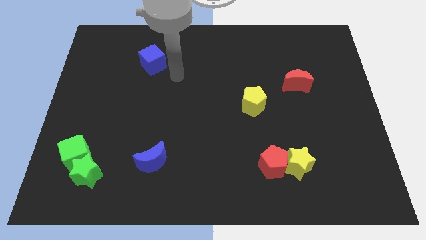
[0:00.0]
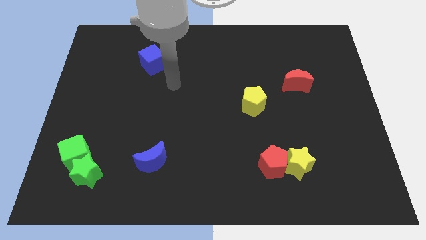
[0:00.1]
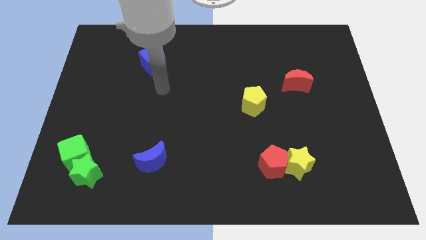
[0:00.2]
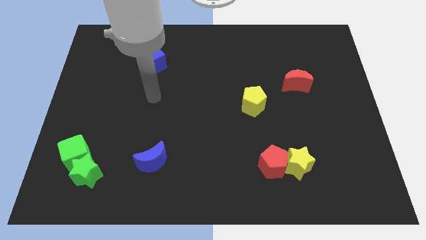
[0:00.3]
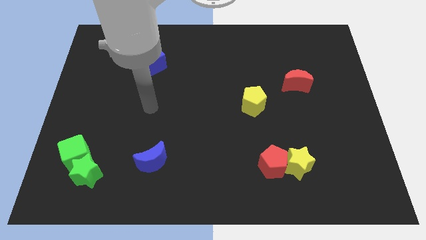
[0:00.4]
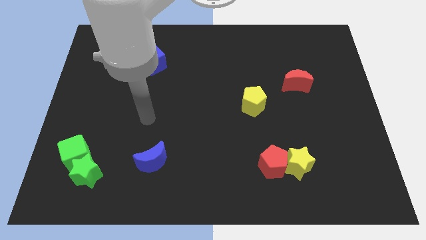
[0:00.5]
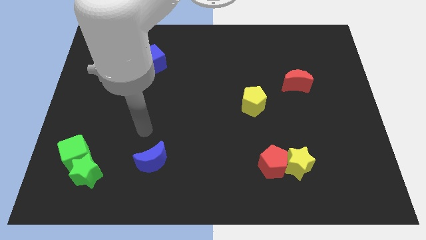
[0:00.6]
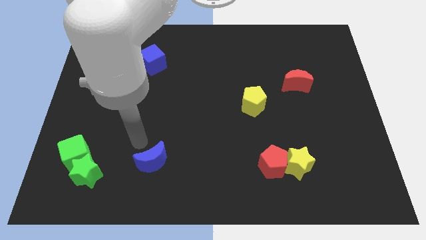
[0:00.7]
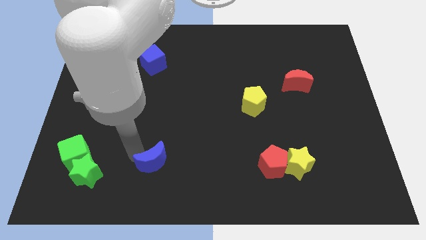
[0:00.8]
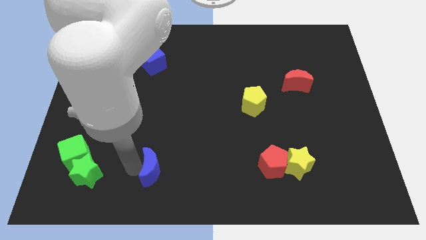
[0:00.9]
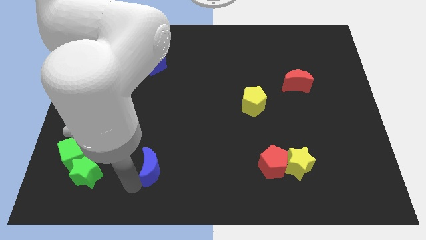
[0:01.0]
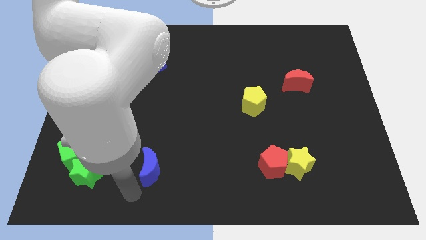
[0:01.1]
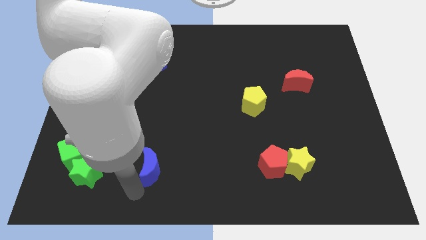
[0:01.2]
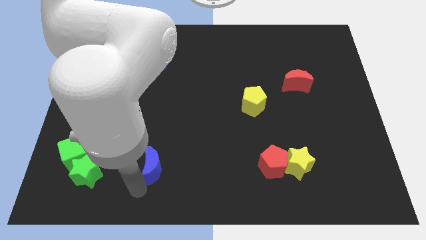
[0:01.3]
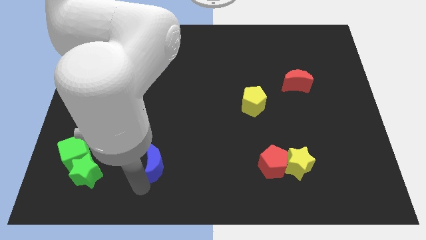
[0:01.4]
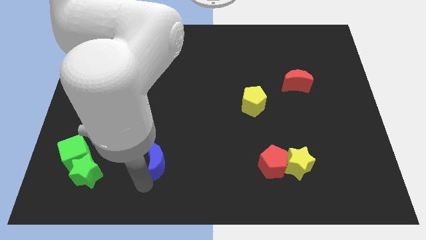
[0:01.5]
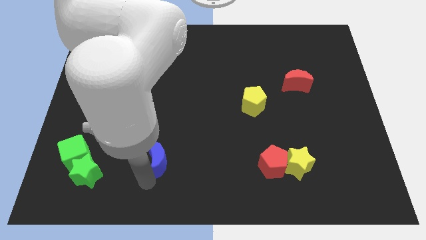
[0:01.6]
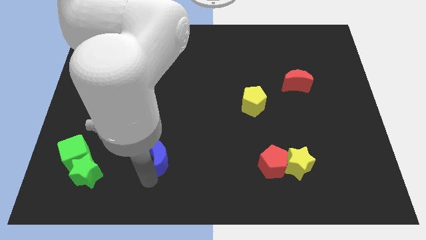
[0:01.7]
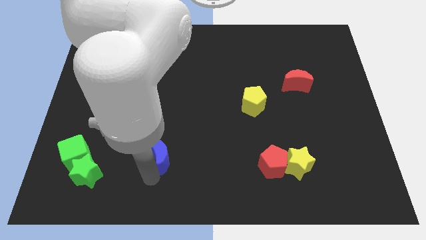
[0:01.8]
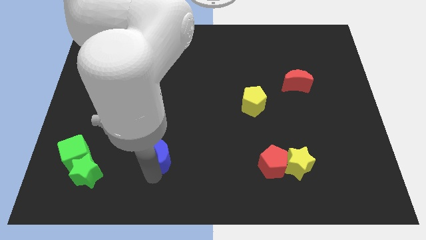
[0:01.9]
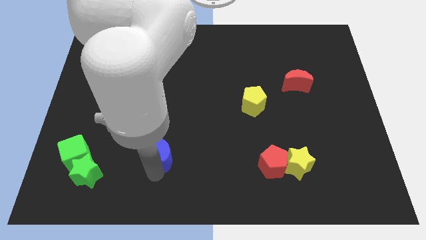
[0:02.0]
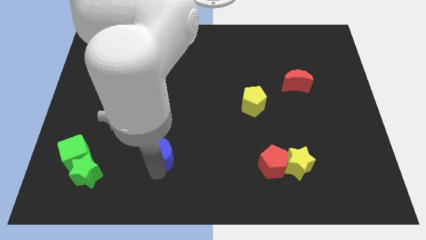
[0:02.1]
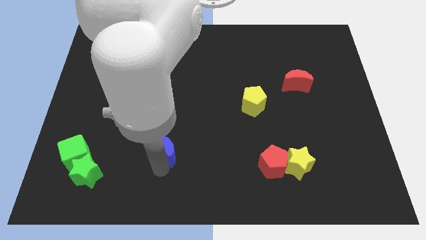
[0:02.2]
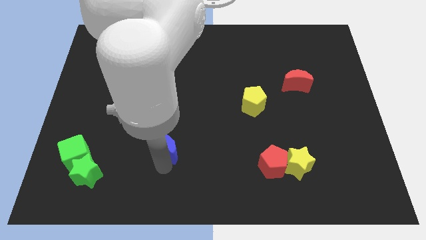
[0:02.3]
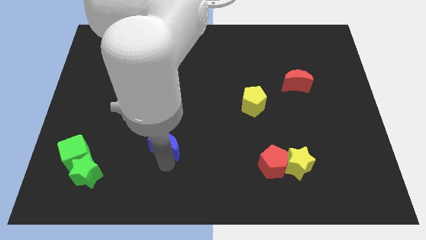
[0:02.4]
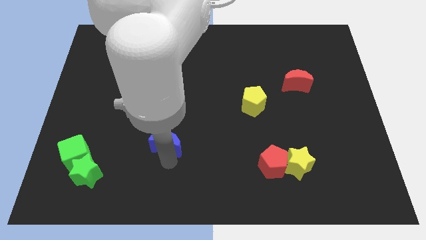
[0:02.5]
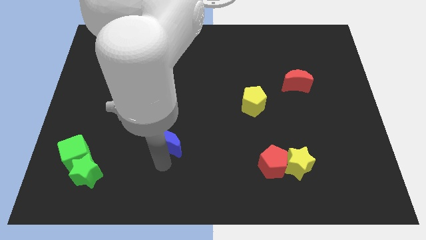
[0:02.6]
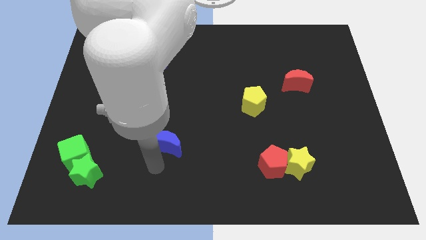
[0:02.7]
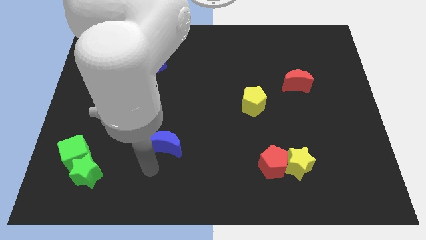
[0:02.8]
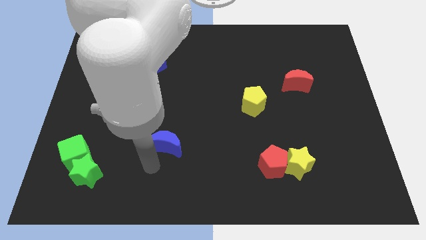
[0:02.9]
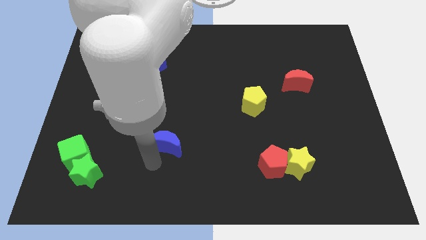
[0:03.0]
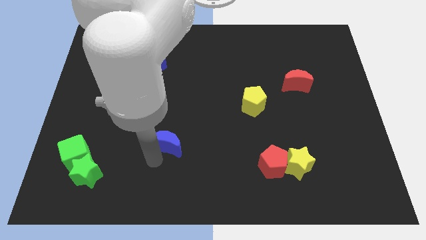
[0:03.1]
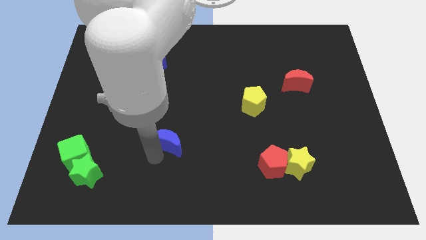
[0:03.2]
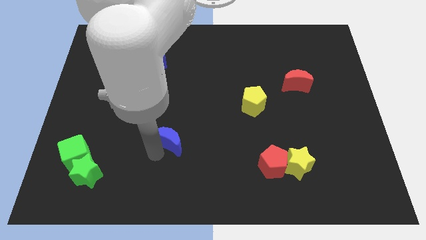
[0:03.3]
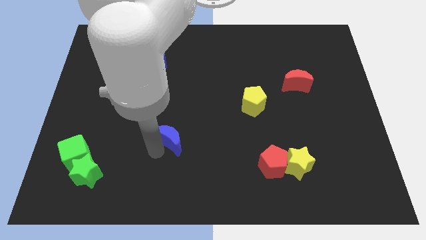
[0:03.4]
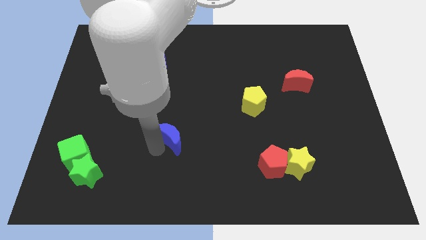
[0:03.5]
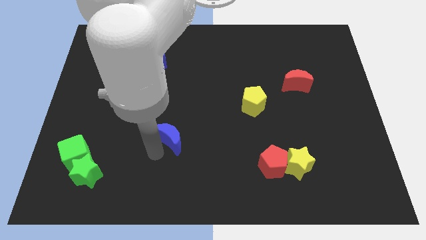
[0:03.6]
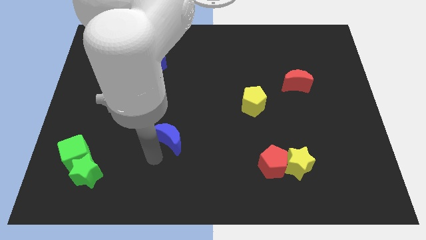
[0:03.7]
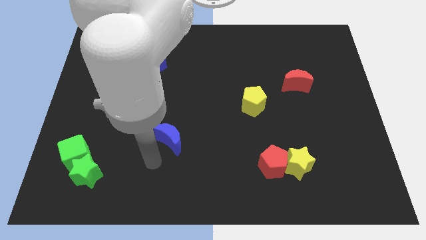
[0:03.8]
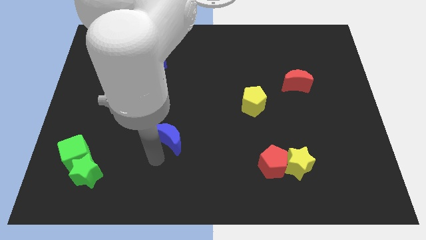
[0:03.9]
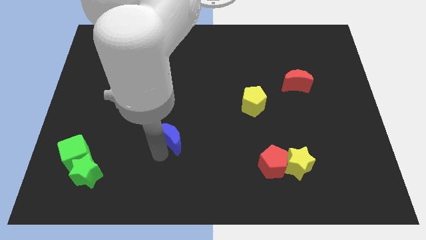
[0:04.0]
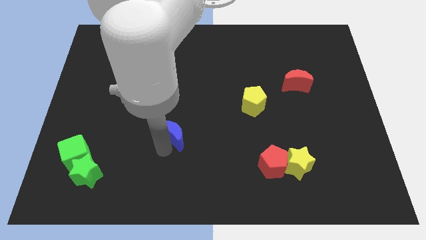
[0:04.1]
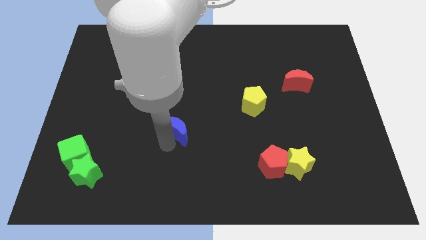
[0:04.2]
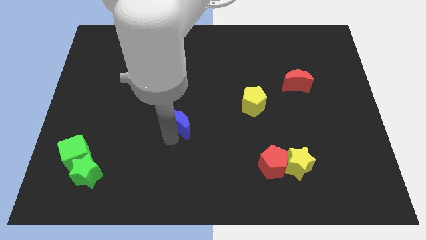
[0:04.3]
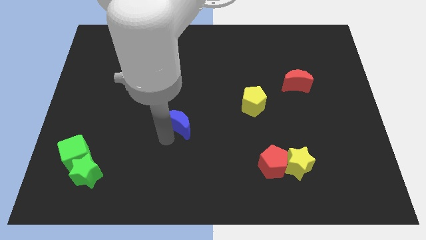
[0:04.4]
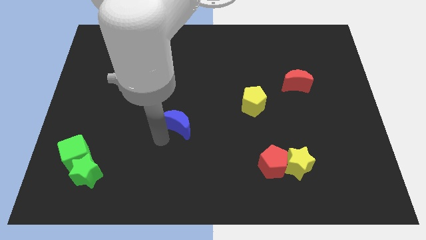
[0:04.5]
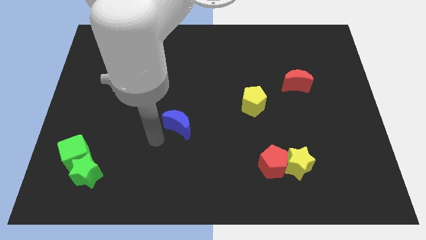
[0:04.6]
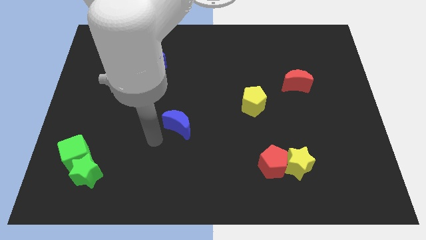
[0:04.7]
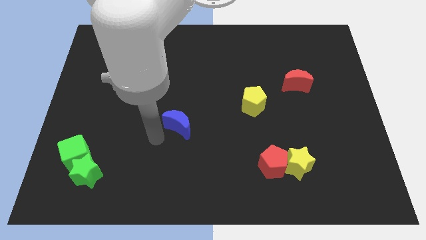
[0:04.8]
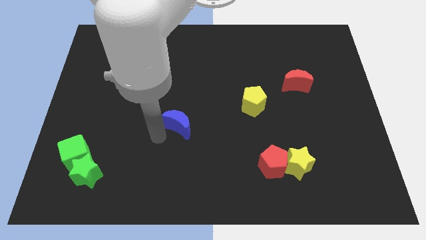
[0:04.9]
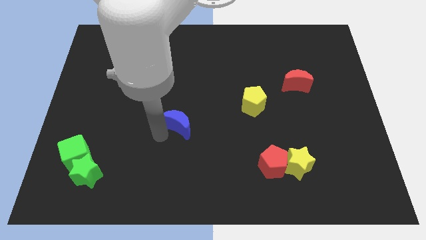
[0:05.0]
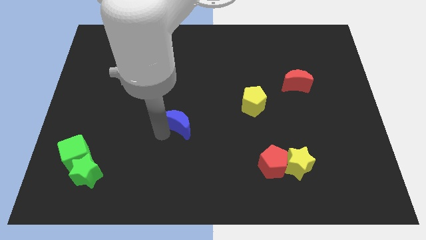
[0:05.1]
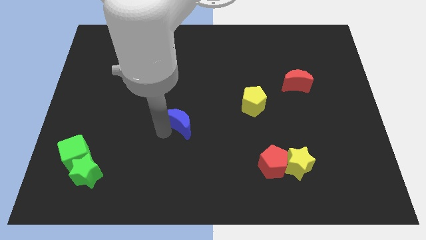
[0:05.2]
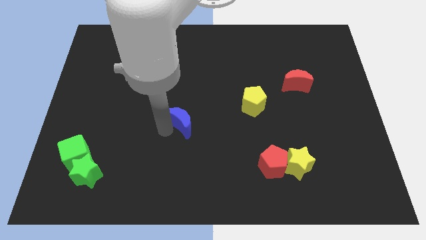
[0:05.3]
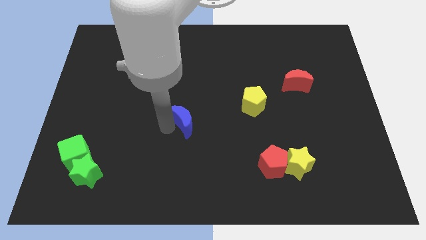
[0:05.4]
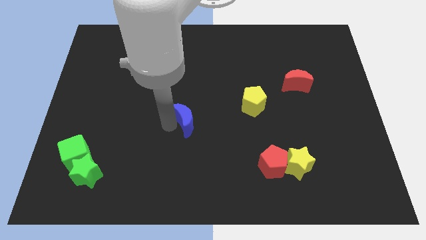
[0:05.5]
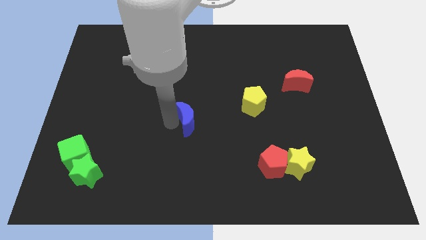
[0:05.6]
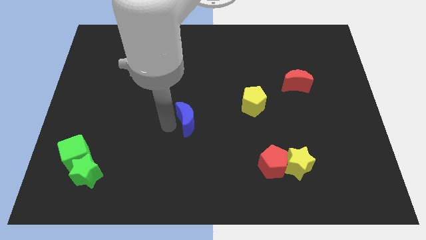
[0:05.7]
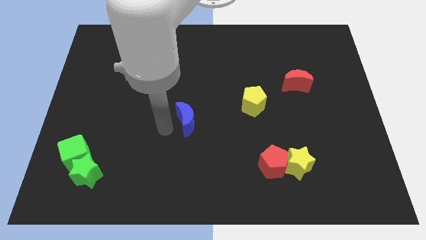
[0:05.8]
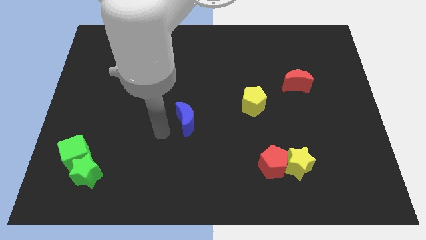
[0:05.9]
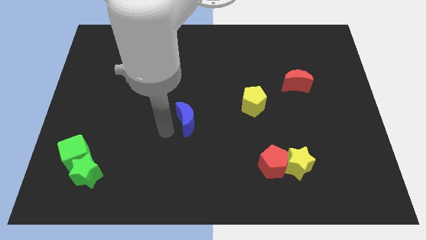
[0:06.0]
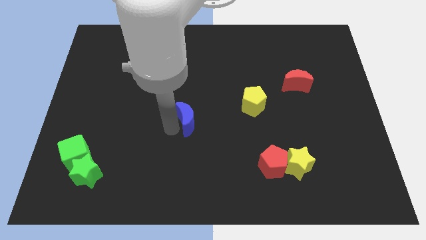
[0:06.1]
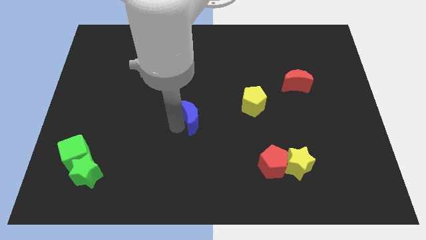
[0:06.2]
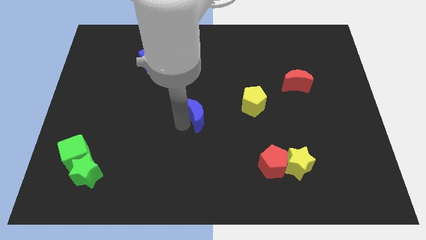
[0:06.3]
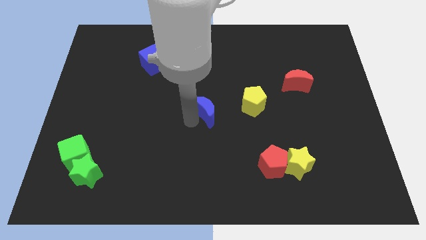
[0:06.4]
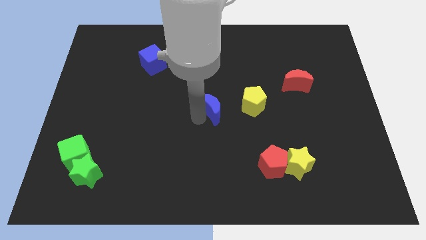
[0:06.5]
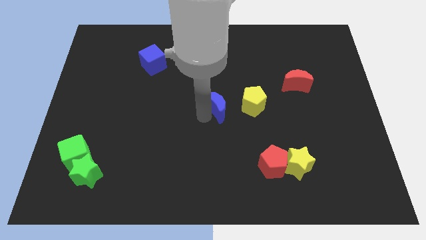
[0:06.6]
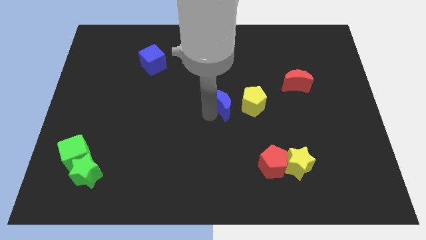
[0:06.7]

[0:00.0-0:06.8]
slide the blue moon upwards and right

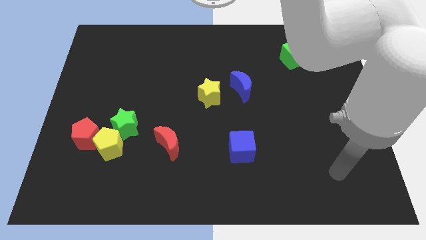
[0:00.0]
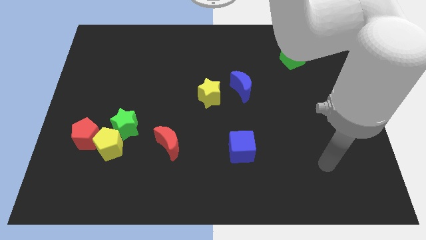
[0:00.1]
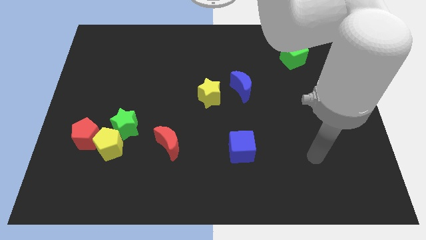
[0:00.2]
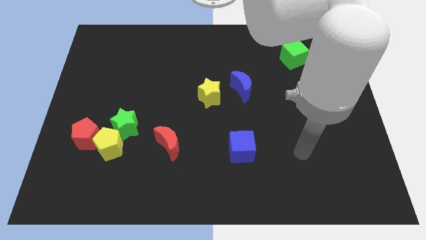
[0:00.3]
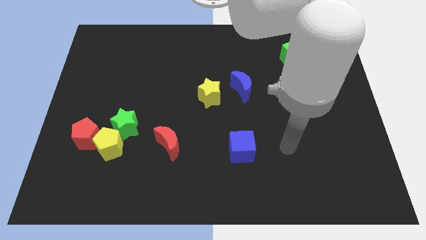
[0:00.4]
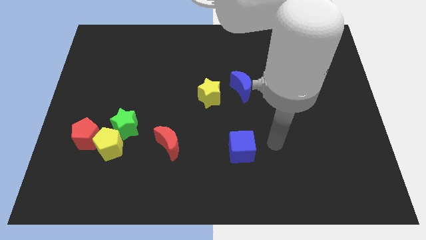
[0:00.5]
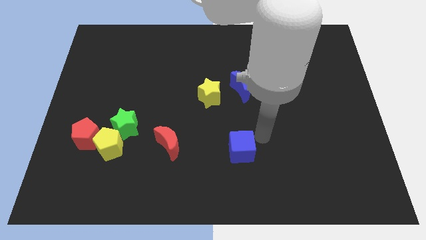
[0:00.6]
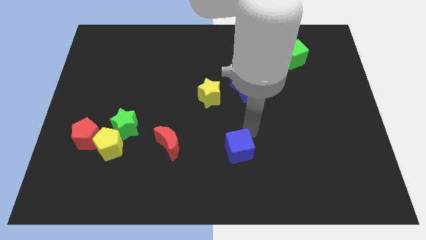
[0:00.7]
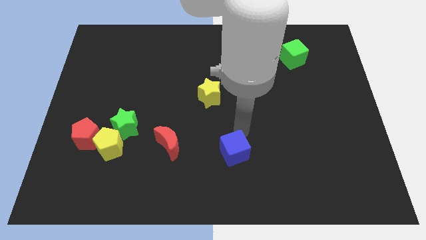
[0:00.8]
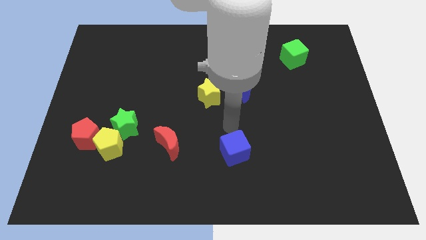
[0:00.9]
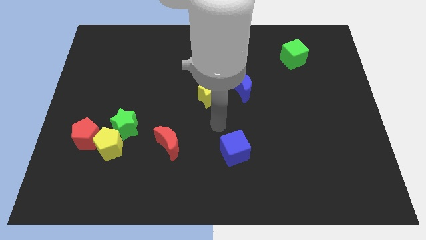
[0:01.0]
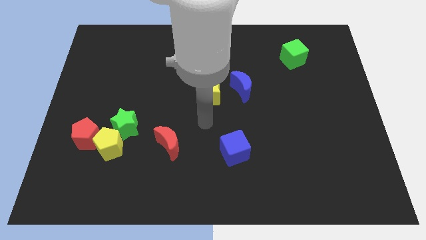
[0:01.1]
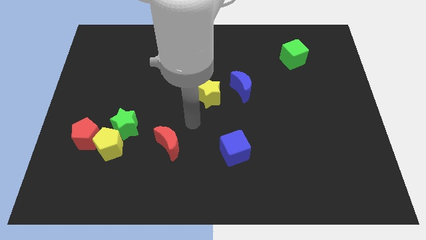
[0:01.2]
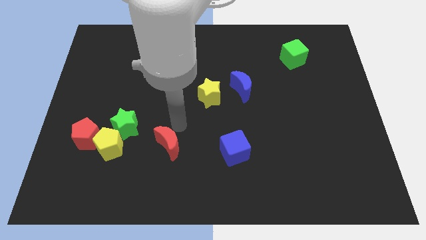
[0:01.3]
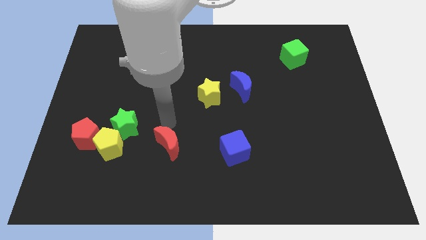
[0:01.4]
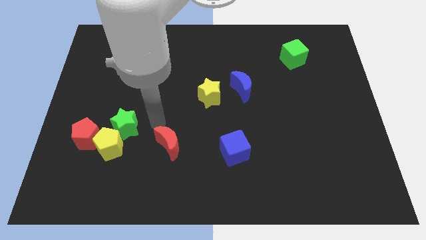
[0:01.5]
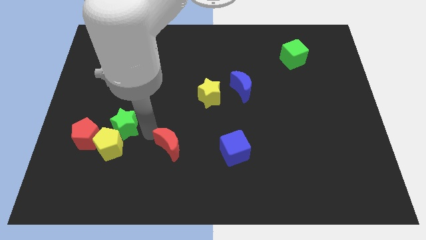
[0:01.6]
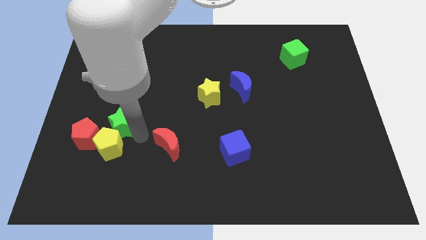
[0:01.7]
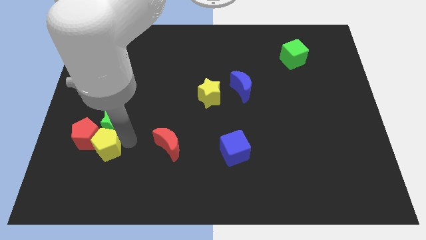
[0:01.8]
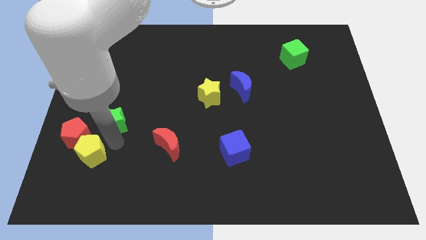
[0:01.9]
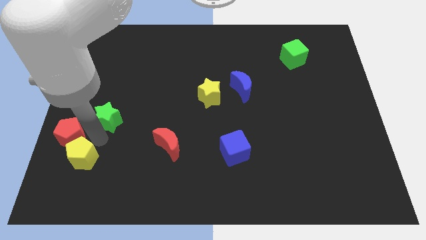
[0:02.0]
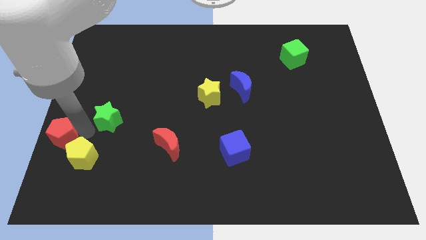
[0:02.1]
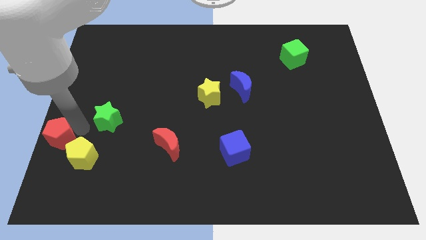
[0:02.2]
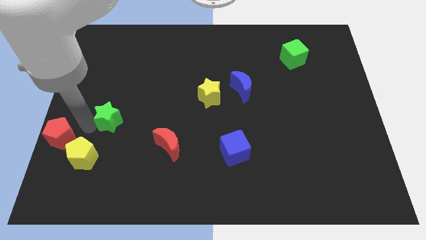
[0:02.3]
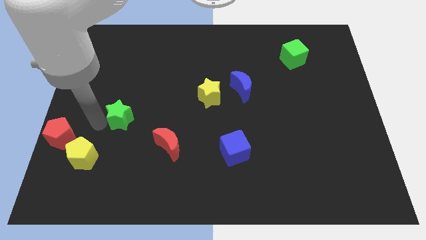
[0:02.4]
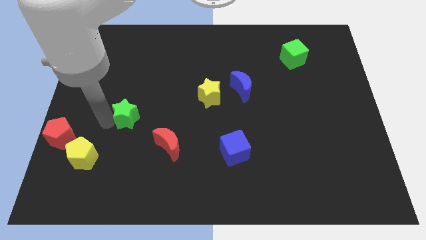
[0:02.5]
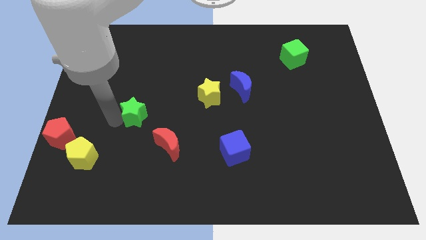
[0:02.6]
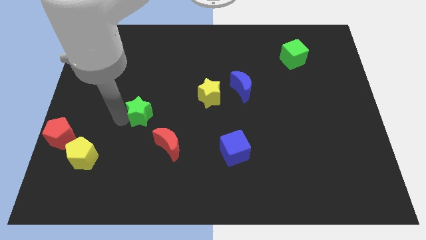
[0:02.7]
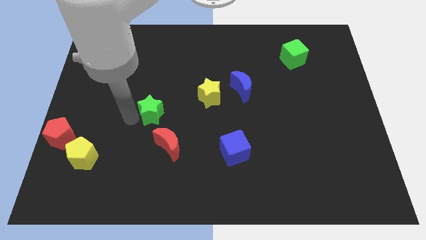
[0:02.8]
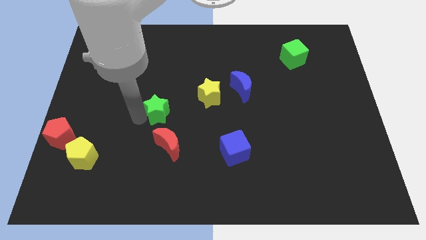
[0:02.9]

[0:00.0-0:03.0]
slide the green star a little bit up and to the right
